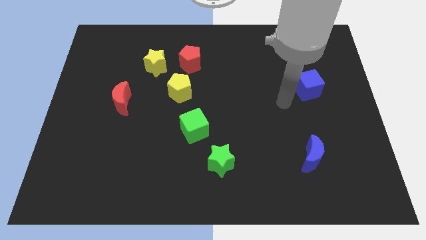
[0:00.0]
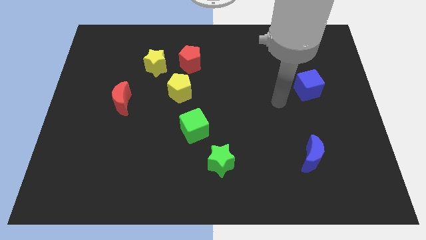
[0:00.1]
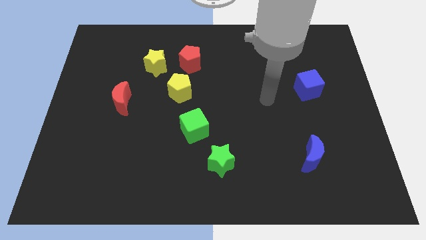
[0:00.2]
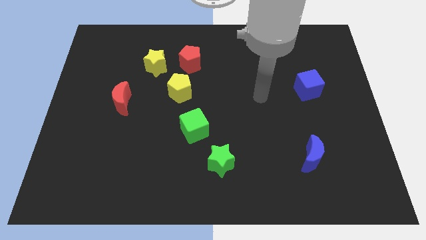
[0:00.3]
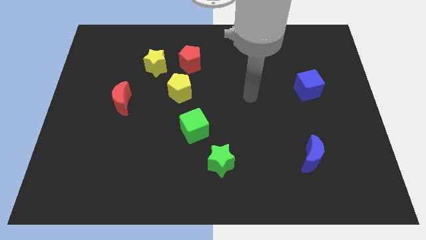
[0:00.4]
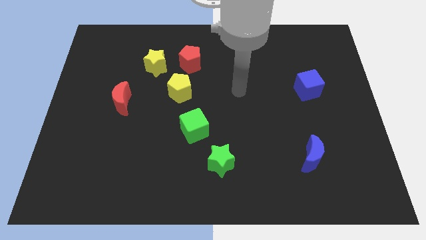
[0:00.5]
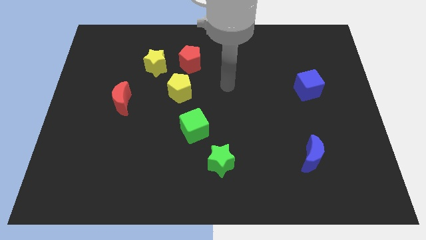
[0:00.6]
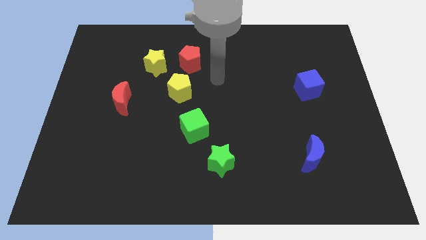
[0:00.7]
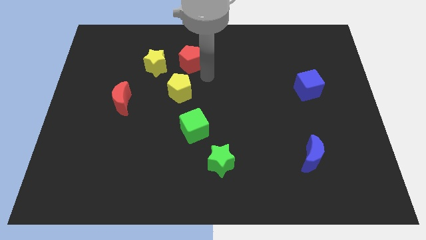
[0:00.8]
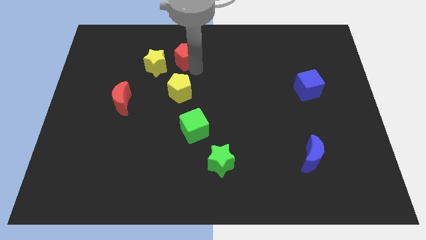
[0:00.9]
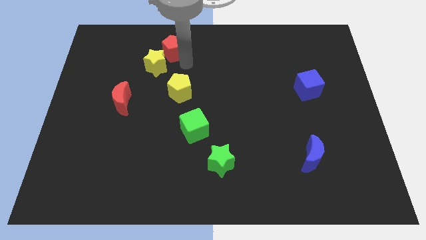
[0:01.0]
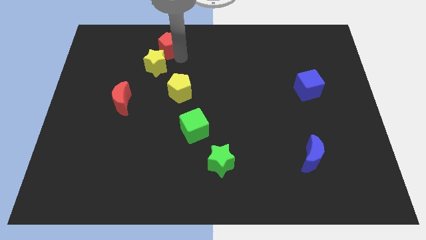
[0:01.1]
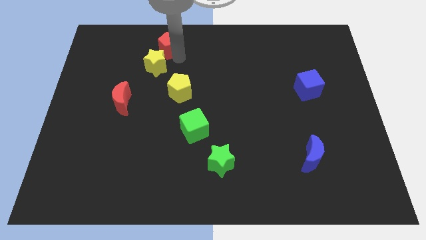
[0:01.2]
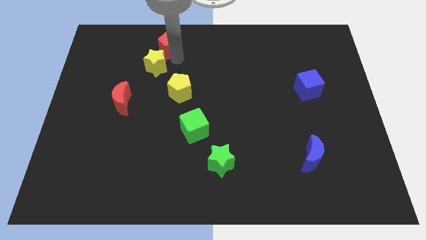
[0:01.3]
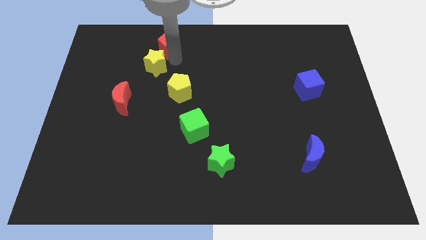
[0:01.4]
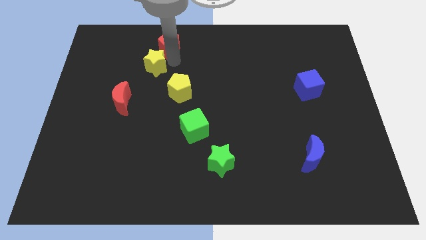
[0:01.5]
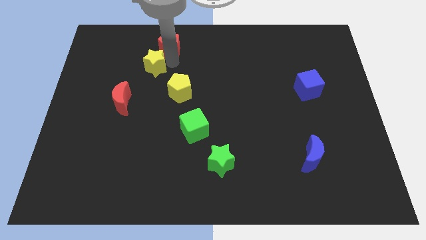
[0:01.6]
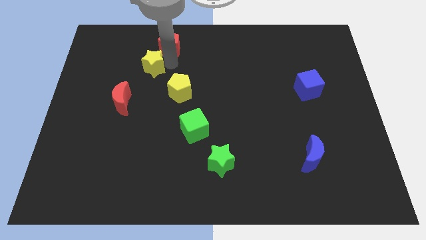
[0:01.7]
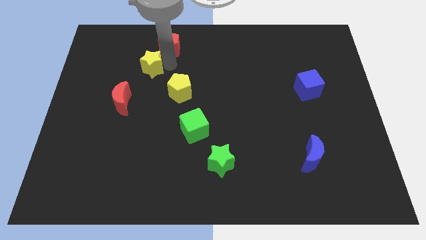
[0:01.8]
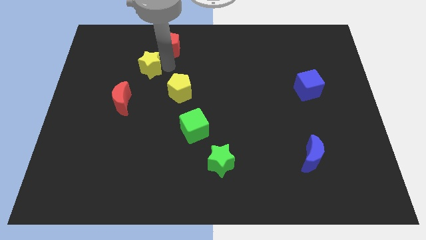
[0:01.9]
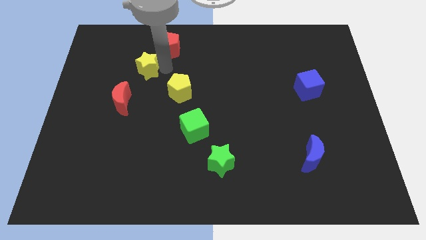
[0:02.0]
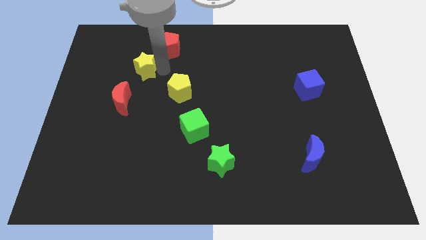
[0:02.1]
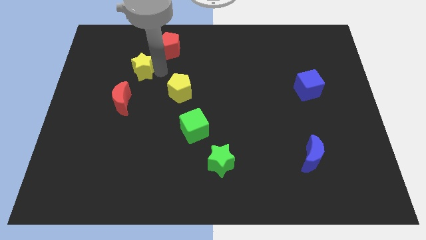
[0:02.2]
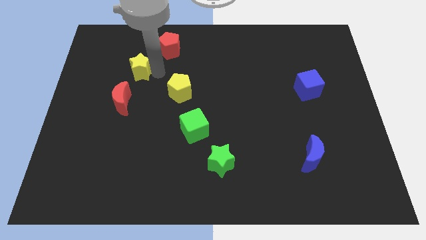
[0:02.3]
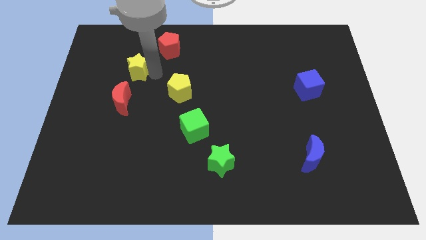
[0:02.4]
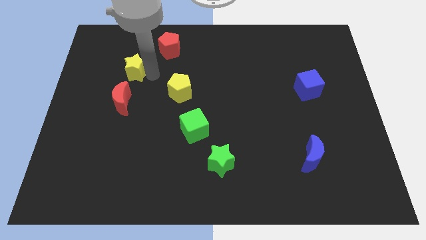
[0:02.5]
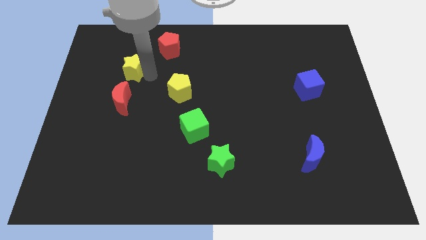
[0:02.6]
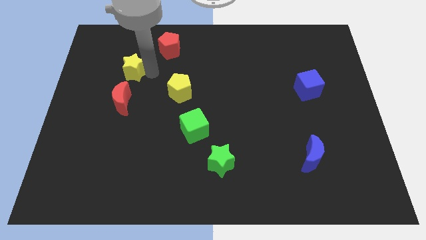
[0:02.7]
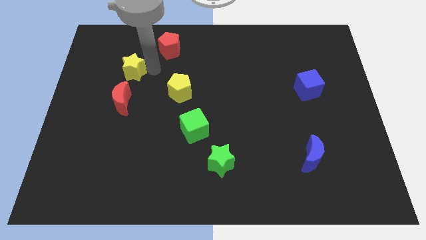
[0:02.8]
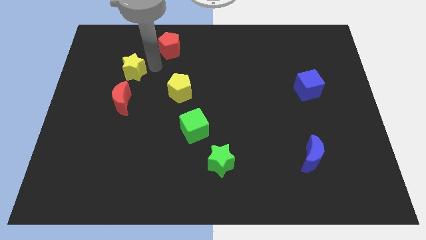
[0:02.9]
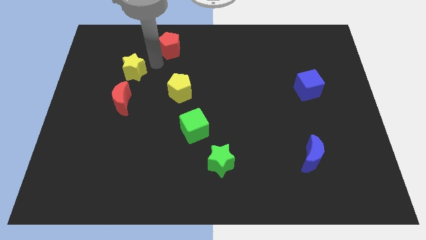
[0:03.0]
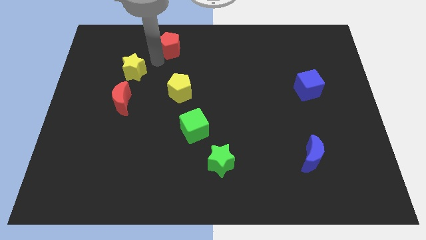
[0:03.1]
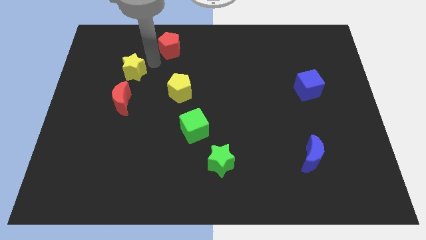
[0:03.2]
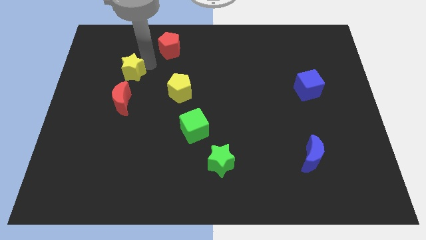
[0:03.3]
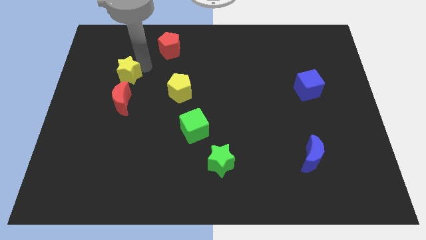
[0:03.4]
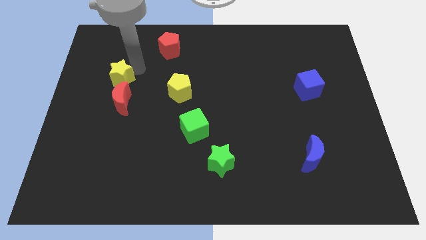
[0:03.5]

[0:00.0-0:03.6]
slightly push the yellow star down and to the left diagonally

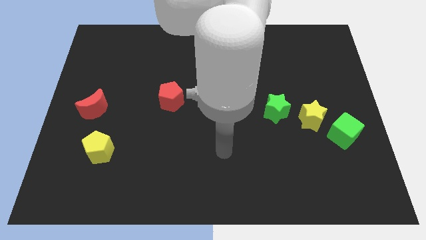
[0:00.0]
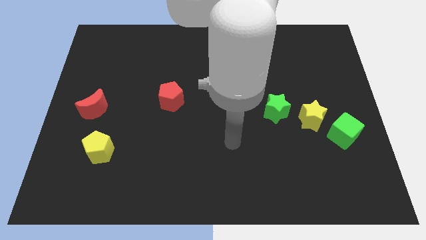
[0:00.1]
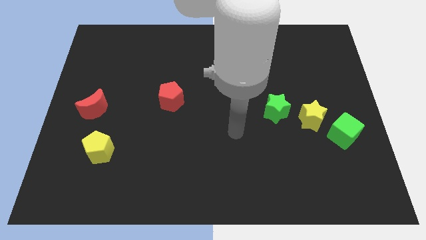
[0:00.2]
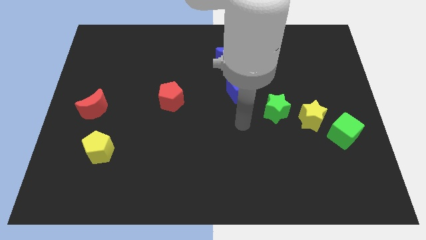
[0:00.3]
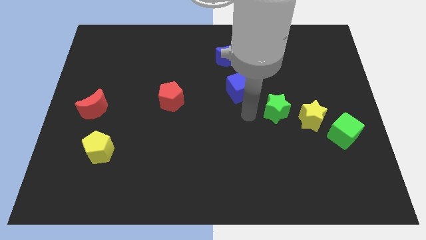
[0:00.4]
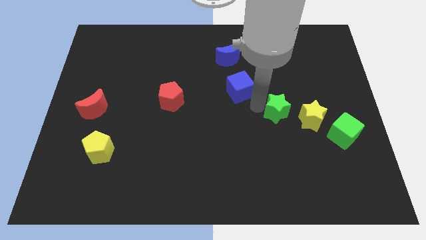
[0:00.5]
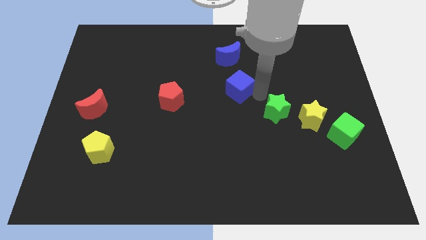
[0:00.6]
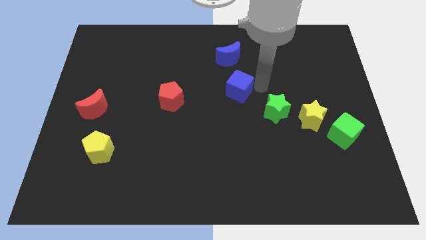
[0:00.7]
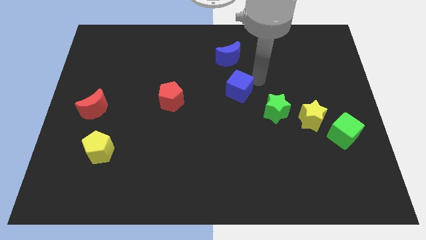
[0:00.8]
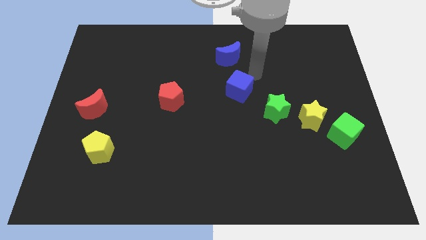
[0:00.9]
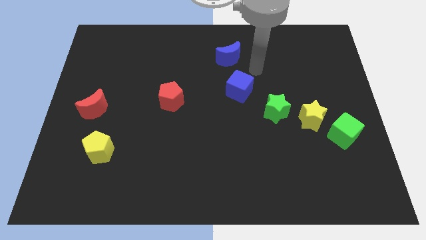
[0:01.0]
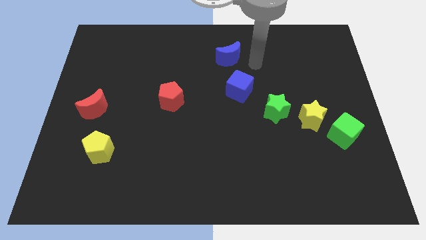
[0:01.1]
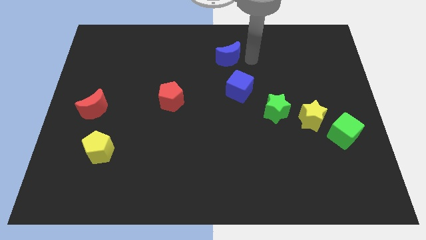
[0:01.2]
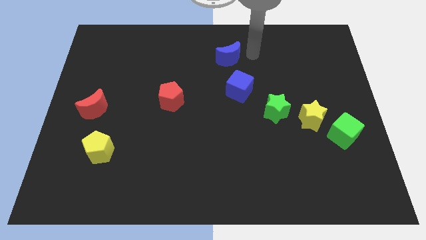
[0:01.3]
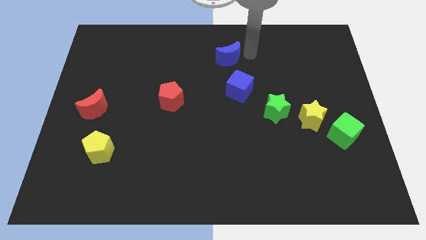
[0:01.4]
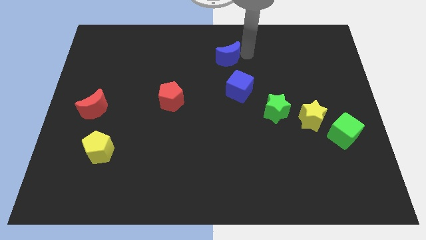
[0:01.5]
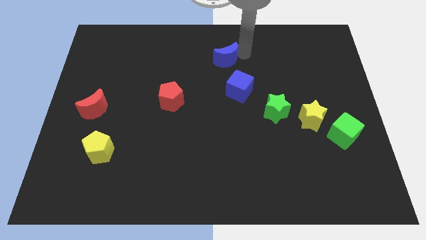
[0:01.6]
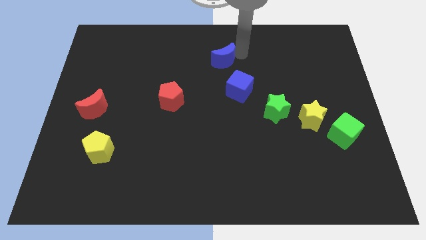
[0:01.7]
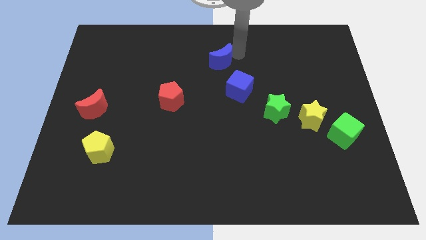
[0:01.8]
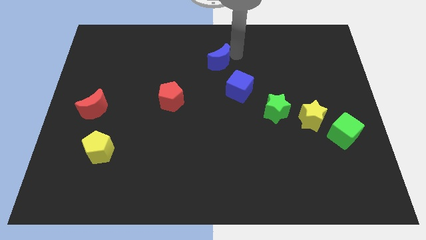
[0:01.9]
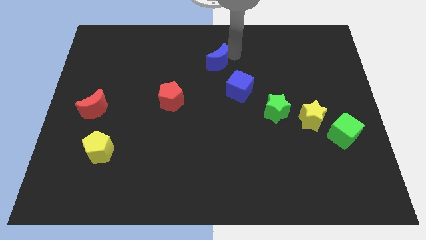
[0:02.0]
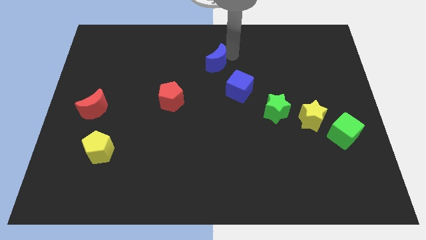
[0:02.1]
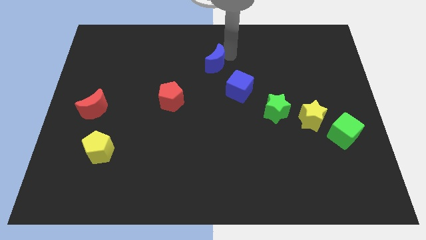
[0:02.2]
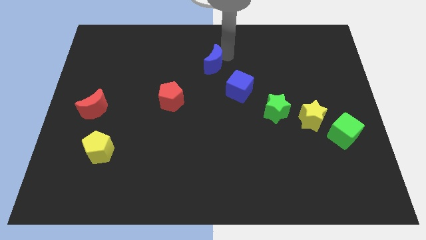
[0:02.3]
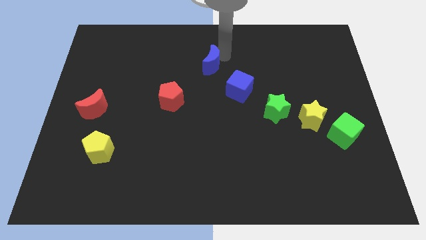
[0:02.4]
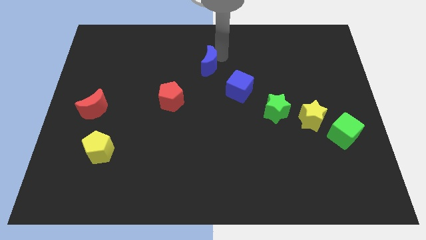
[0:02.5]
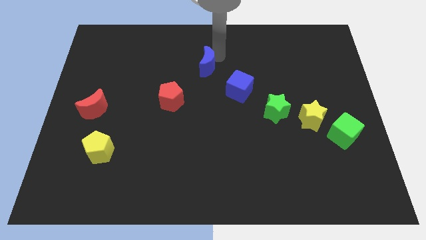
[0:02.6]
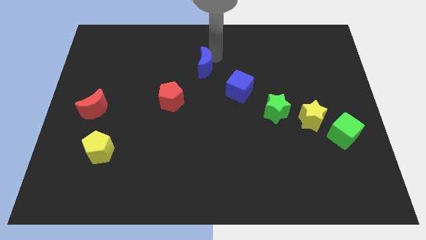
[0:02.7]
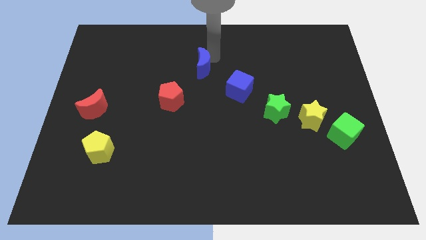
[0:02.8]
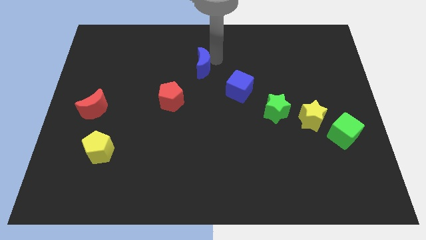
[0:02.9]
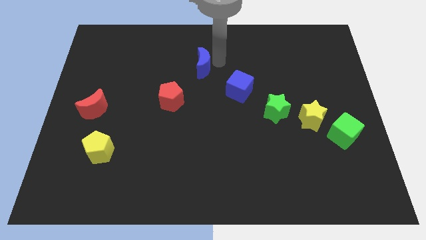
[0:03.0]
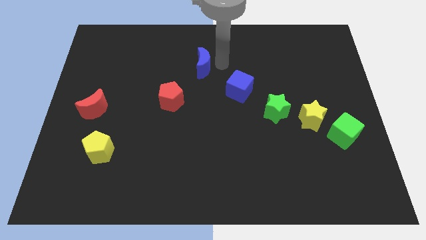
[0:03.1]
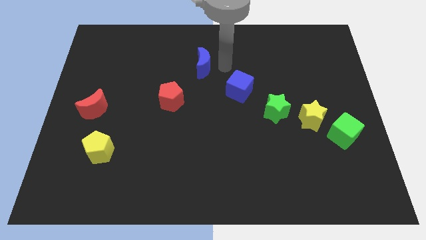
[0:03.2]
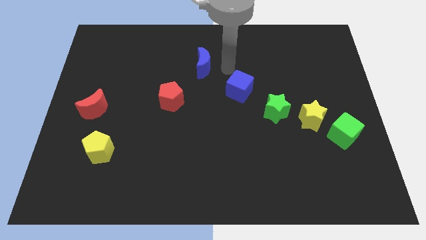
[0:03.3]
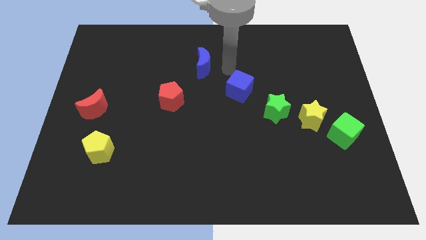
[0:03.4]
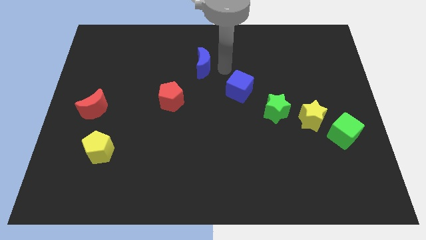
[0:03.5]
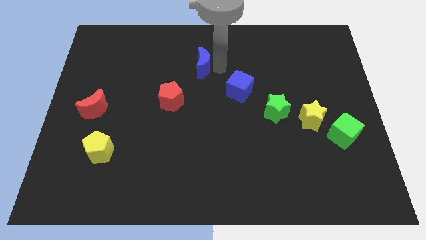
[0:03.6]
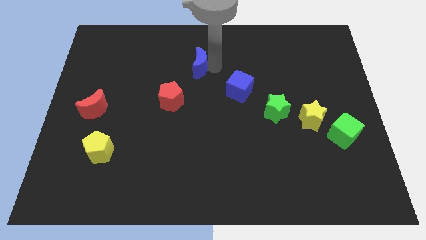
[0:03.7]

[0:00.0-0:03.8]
push the blue moon to the left a little bit
